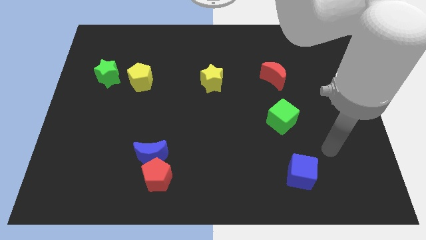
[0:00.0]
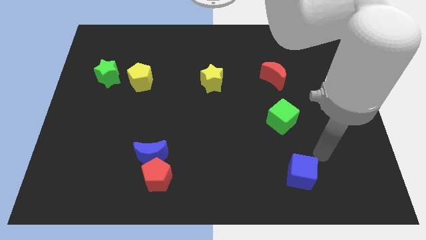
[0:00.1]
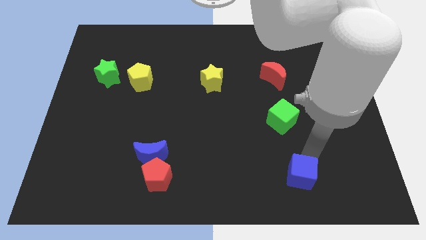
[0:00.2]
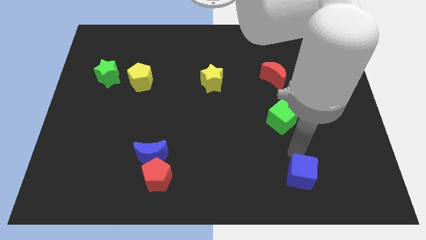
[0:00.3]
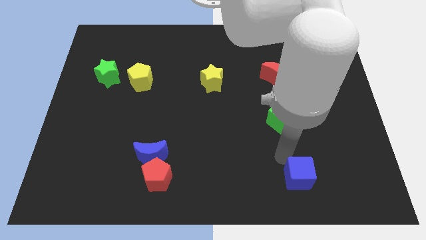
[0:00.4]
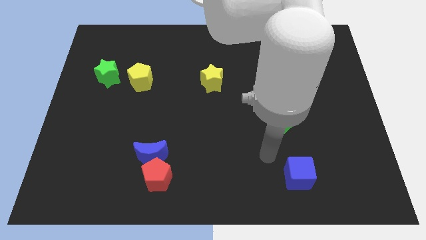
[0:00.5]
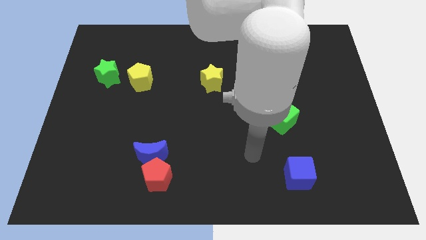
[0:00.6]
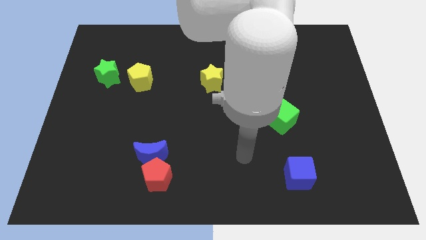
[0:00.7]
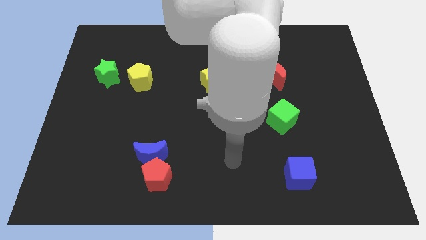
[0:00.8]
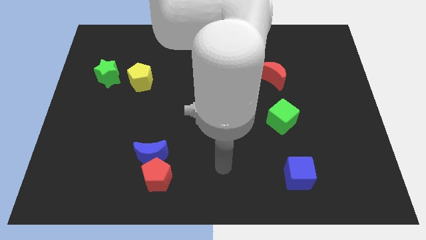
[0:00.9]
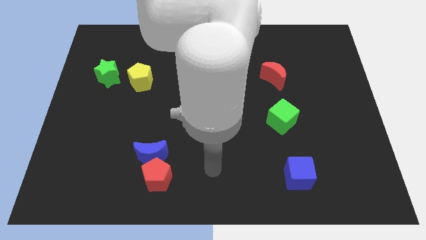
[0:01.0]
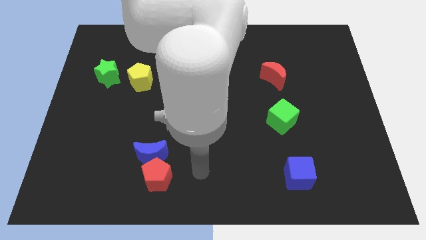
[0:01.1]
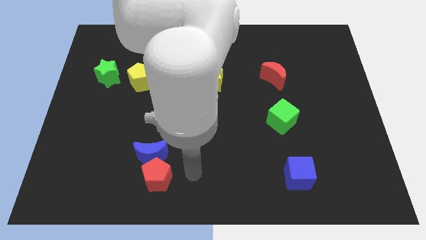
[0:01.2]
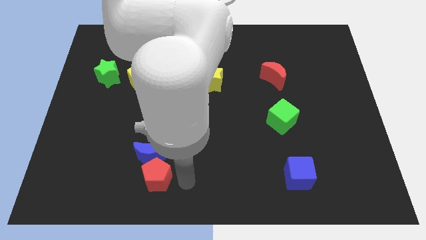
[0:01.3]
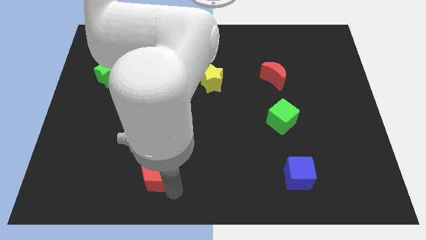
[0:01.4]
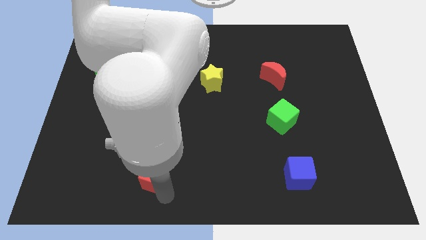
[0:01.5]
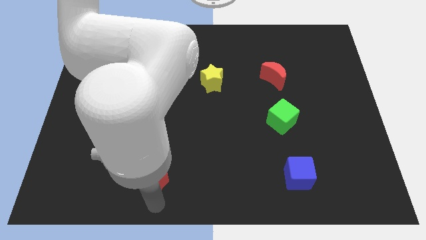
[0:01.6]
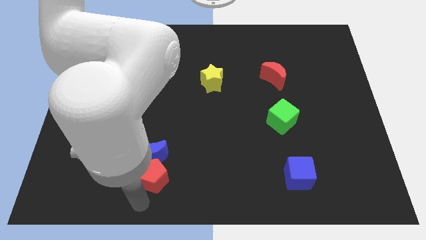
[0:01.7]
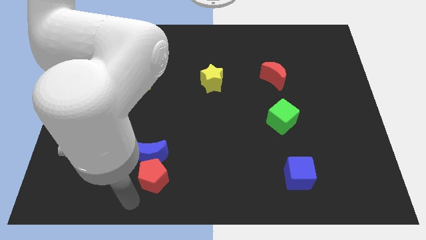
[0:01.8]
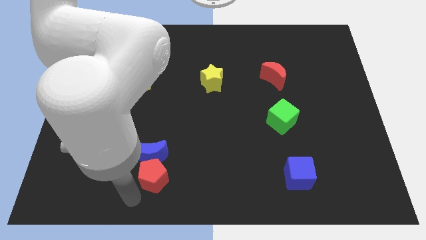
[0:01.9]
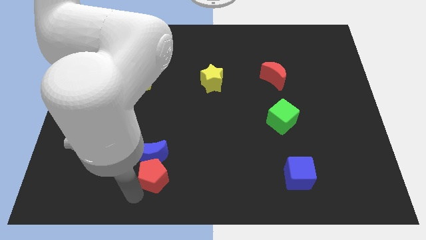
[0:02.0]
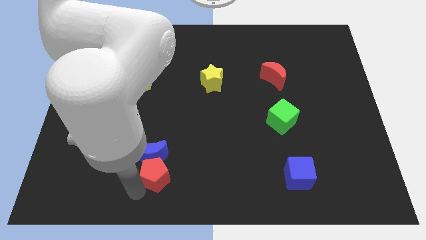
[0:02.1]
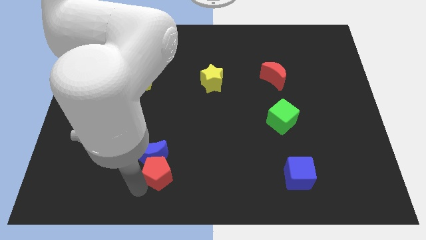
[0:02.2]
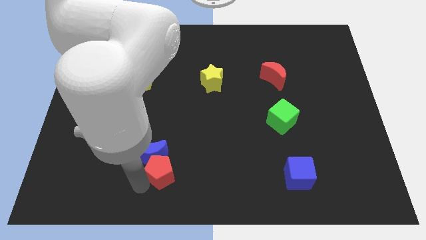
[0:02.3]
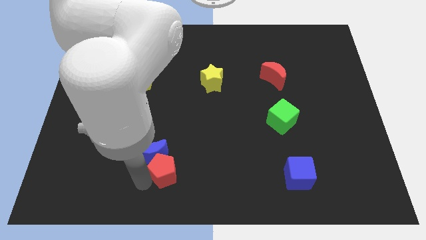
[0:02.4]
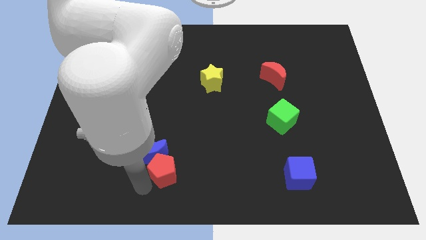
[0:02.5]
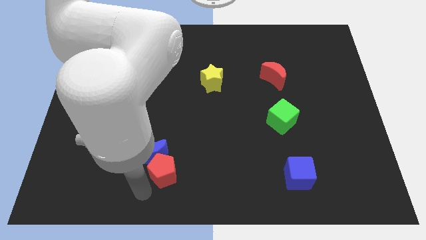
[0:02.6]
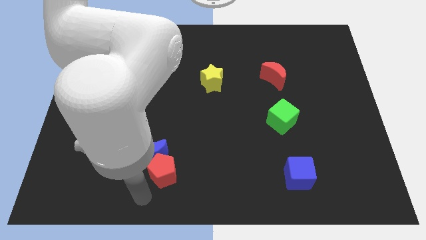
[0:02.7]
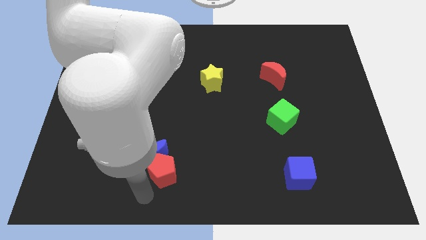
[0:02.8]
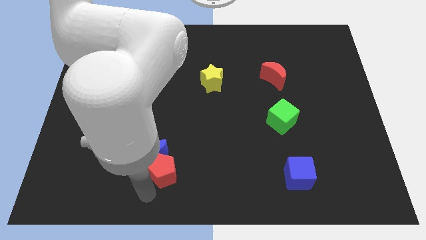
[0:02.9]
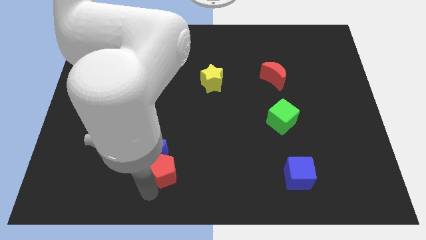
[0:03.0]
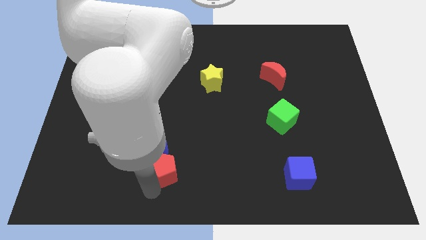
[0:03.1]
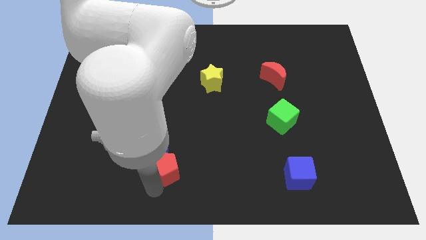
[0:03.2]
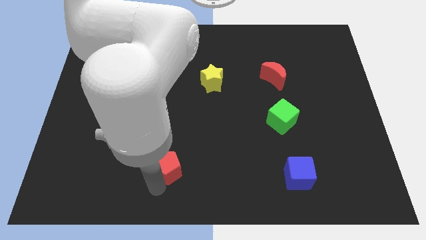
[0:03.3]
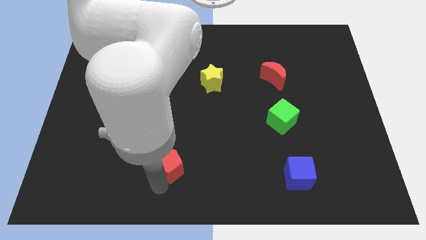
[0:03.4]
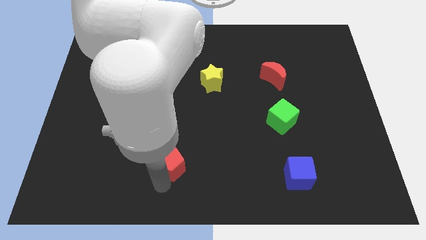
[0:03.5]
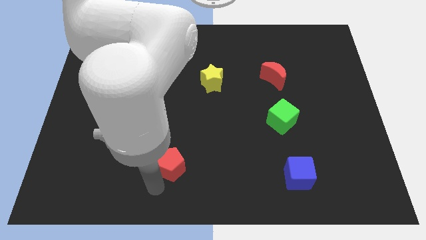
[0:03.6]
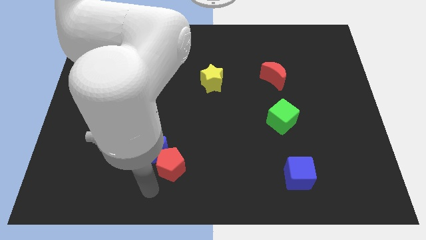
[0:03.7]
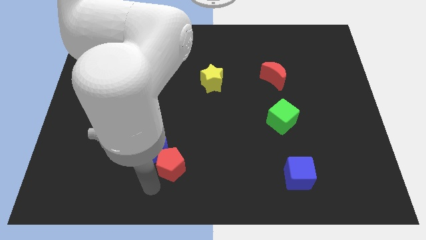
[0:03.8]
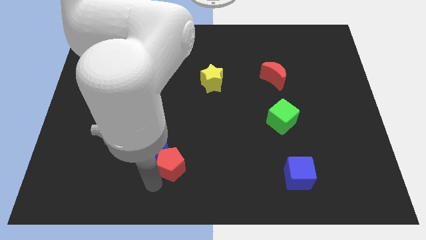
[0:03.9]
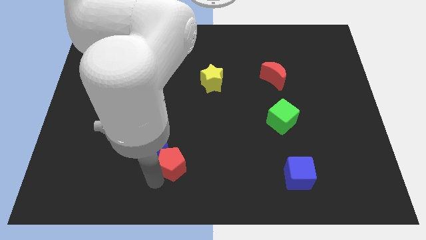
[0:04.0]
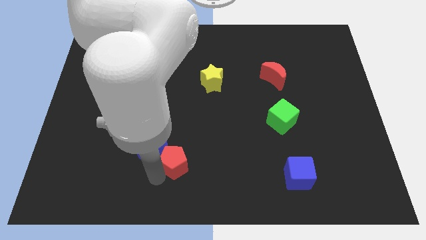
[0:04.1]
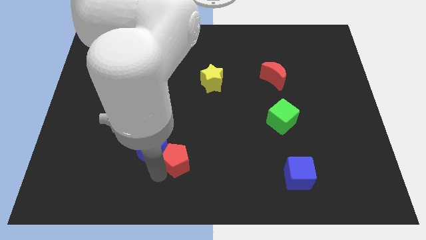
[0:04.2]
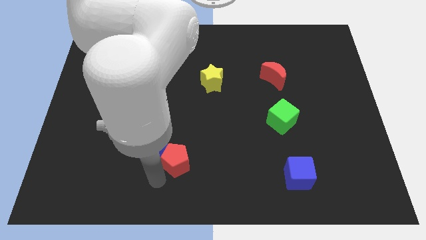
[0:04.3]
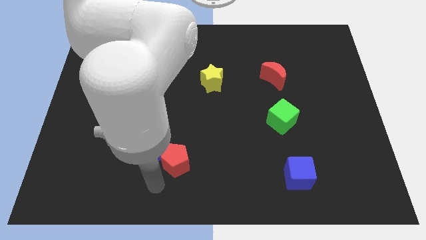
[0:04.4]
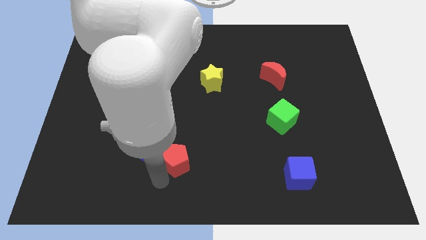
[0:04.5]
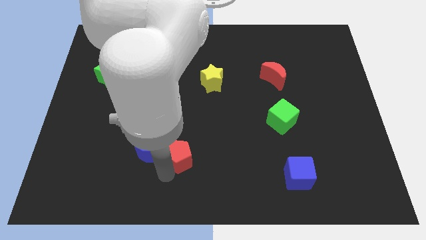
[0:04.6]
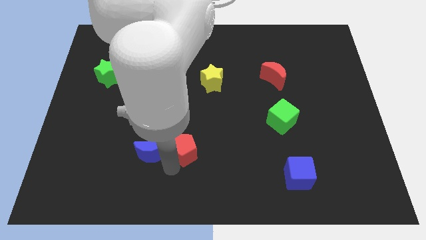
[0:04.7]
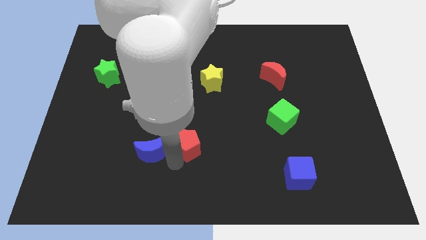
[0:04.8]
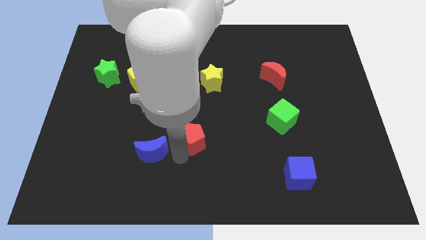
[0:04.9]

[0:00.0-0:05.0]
slide the red pentagon to the center

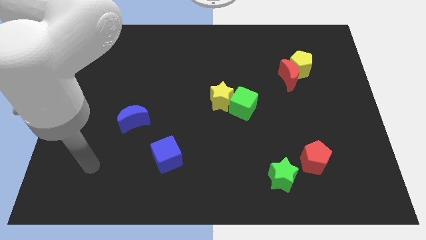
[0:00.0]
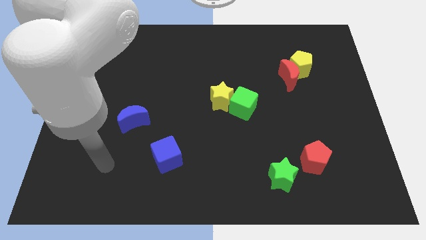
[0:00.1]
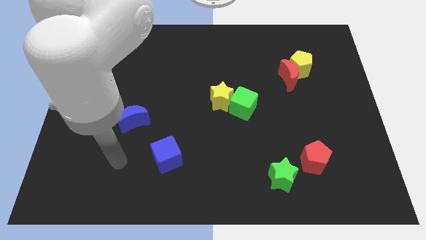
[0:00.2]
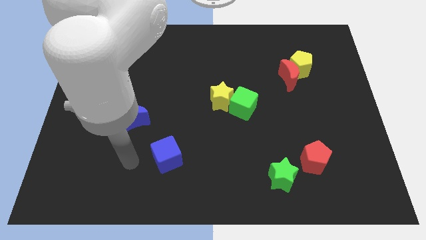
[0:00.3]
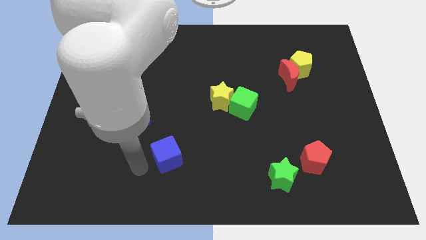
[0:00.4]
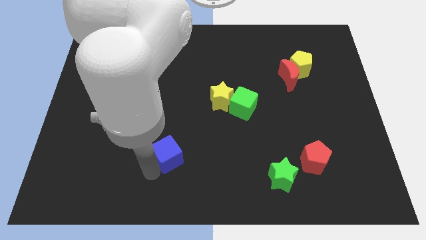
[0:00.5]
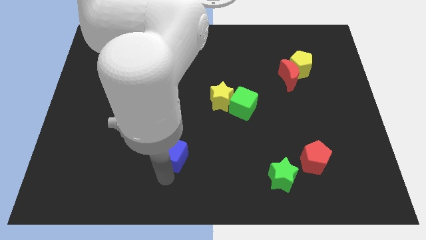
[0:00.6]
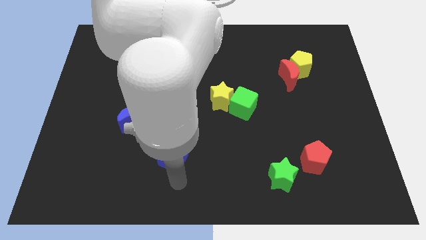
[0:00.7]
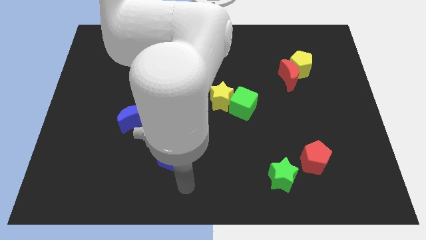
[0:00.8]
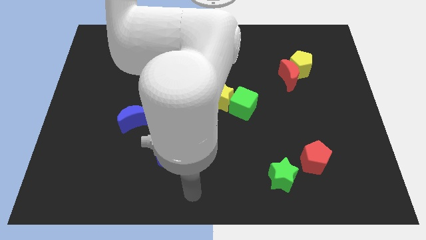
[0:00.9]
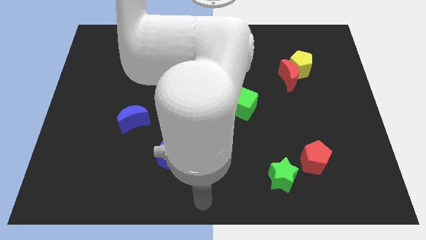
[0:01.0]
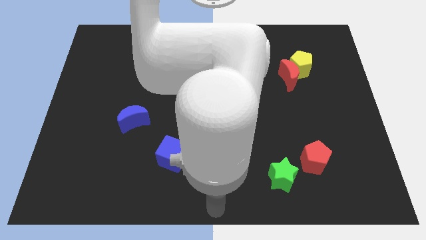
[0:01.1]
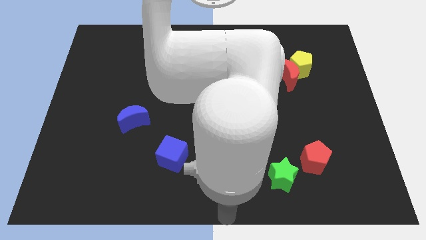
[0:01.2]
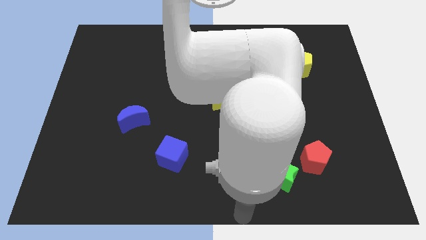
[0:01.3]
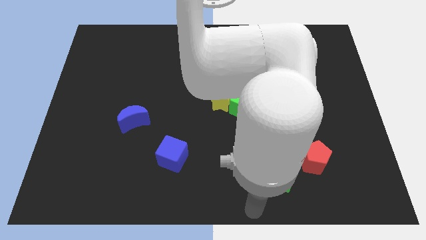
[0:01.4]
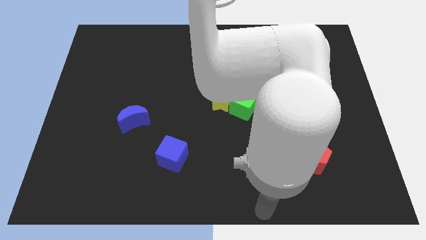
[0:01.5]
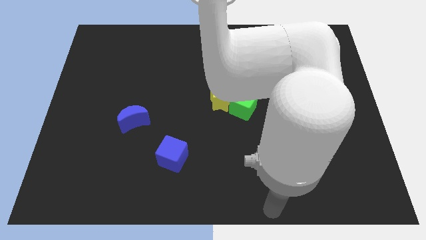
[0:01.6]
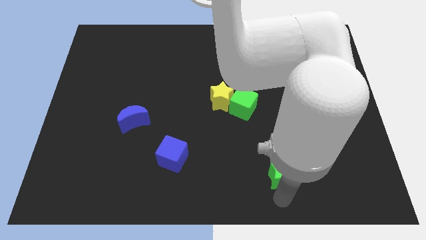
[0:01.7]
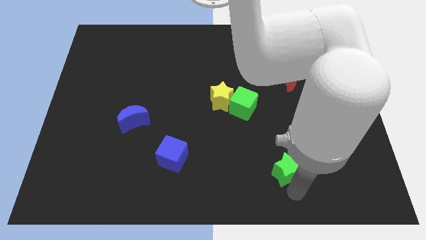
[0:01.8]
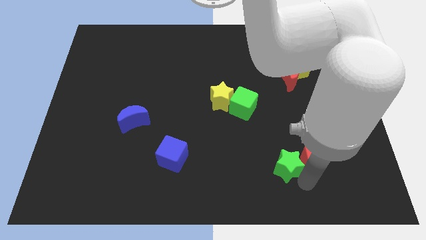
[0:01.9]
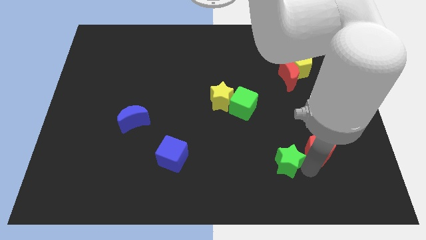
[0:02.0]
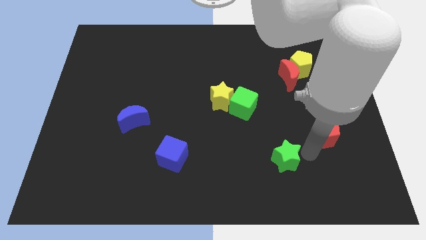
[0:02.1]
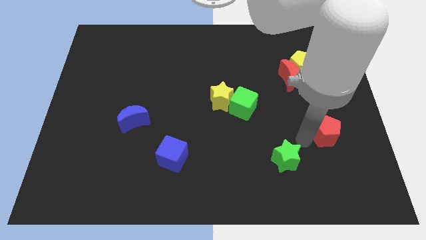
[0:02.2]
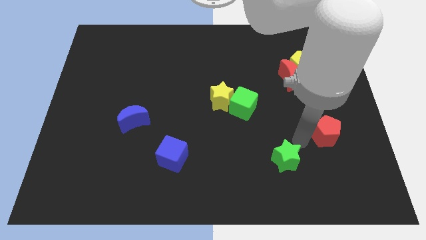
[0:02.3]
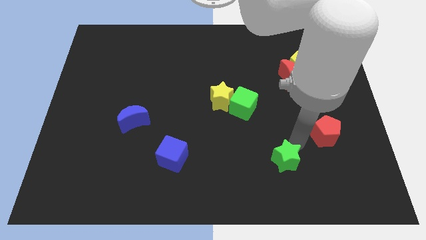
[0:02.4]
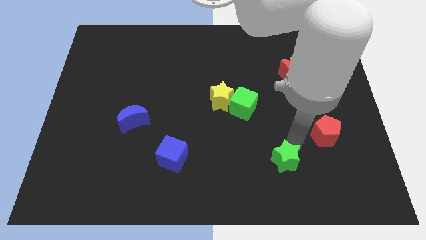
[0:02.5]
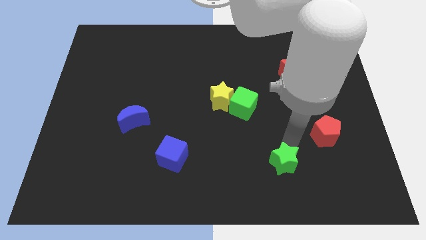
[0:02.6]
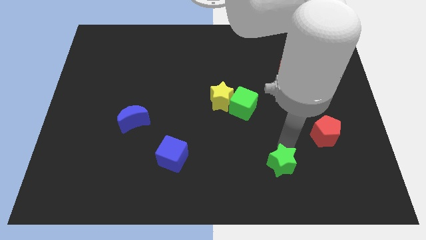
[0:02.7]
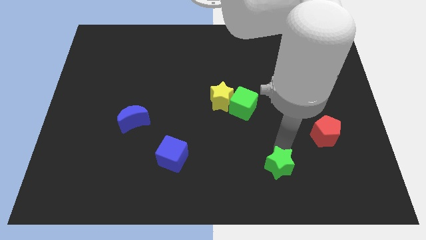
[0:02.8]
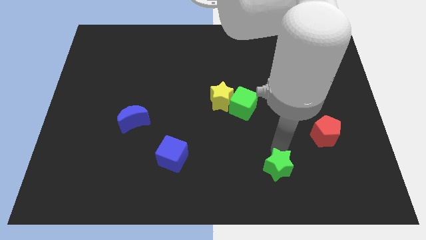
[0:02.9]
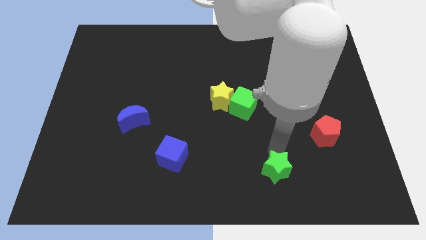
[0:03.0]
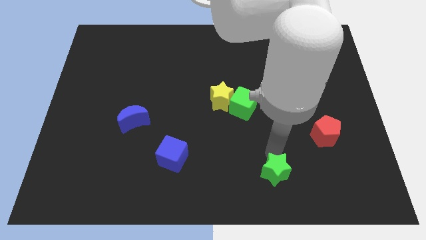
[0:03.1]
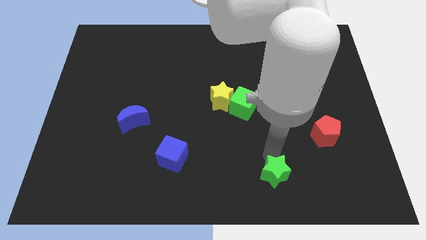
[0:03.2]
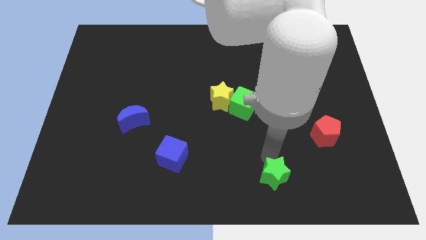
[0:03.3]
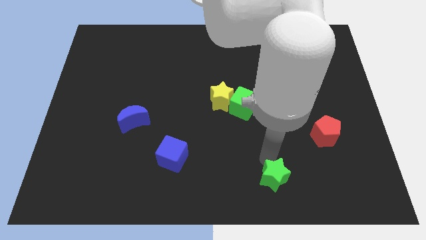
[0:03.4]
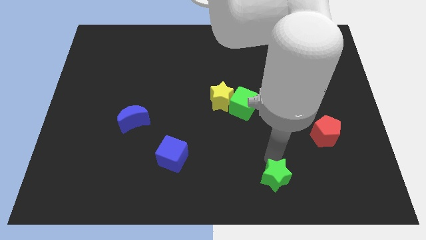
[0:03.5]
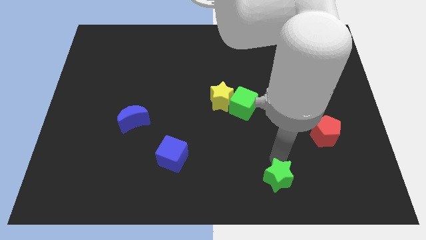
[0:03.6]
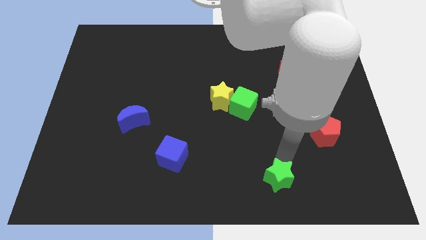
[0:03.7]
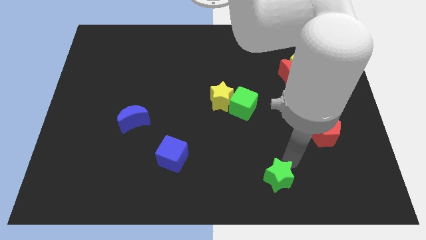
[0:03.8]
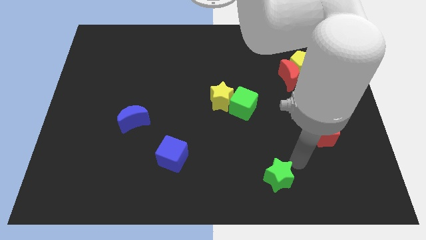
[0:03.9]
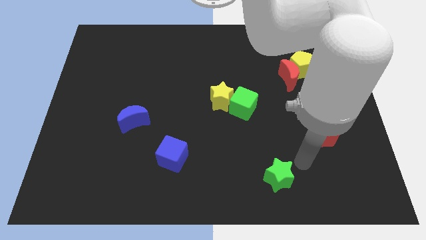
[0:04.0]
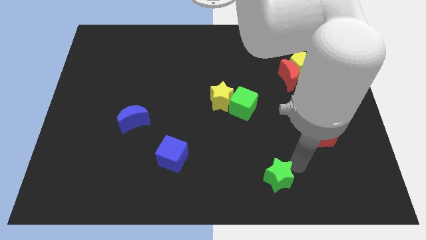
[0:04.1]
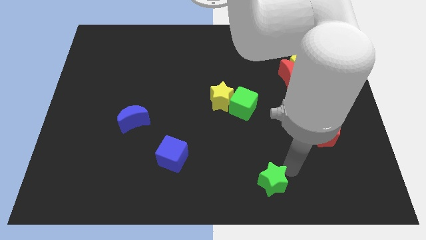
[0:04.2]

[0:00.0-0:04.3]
push the green star to the bottom
